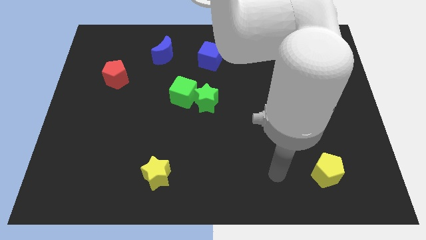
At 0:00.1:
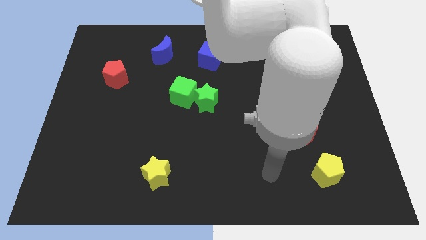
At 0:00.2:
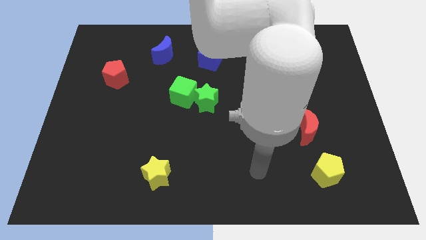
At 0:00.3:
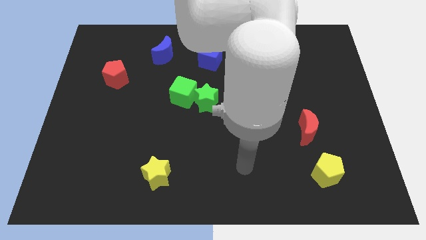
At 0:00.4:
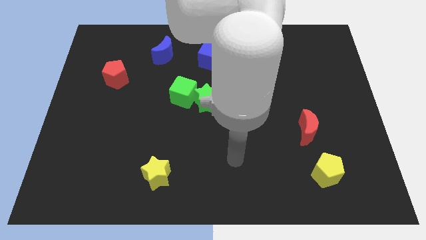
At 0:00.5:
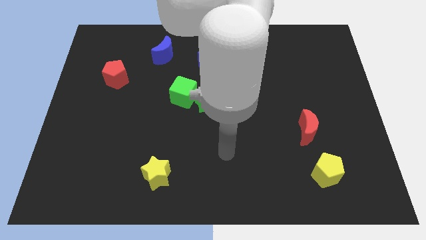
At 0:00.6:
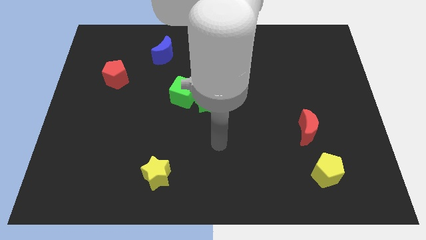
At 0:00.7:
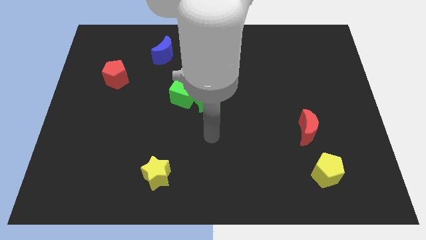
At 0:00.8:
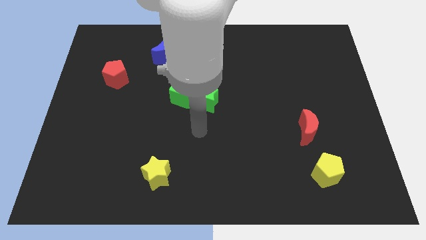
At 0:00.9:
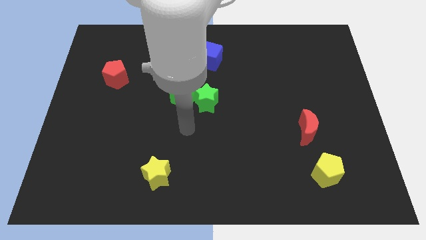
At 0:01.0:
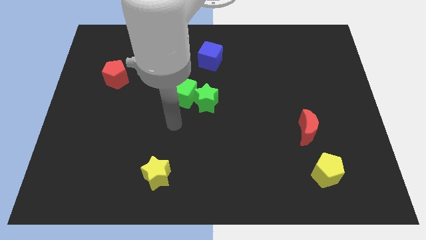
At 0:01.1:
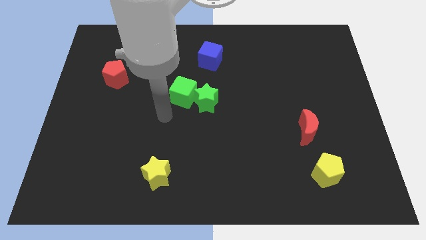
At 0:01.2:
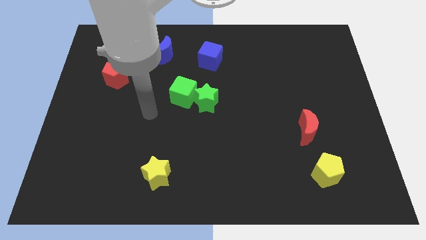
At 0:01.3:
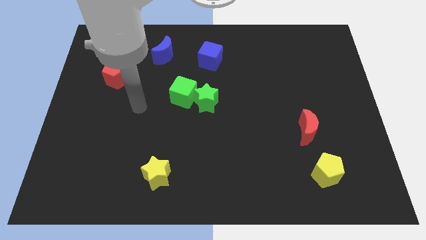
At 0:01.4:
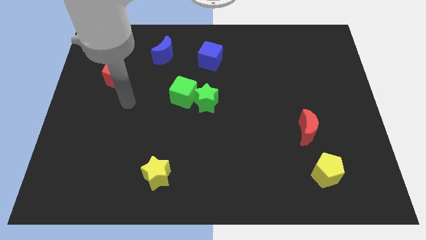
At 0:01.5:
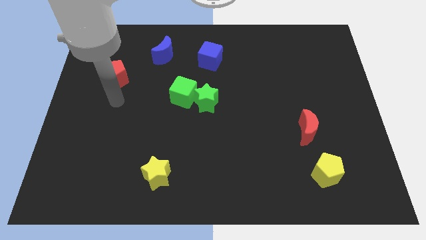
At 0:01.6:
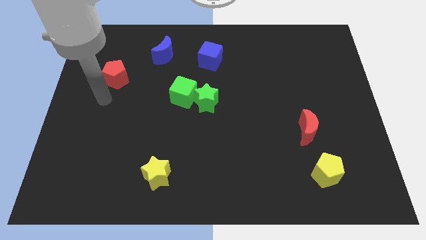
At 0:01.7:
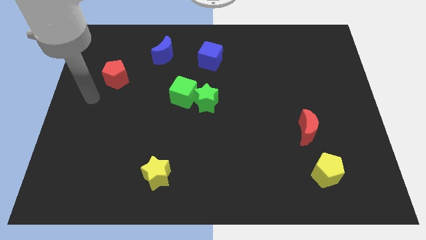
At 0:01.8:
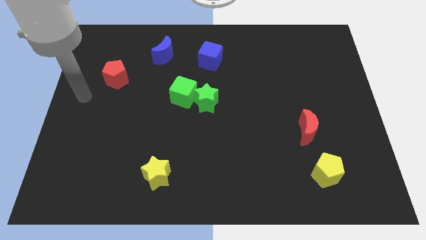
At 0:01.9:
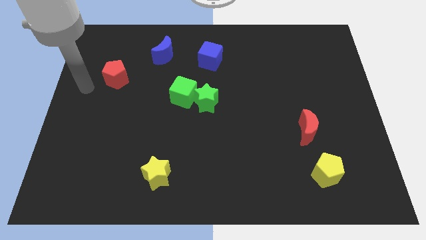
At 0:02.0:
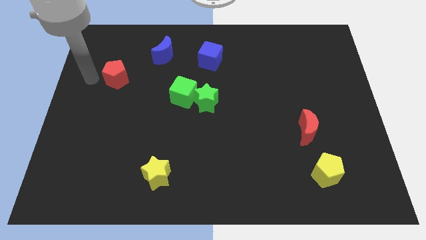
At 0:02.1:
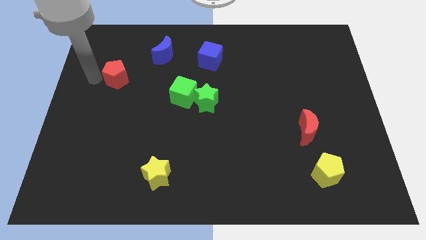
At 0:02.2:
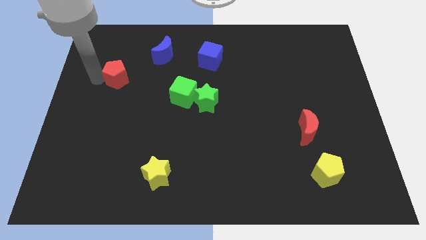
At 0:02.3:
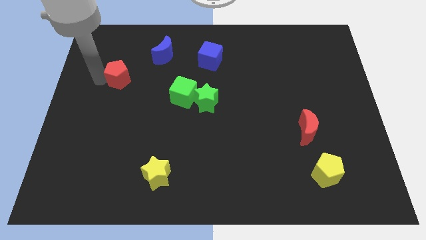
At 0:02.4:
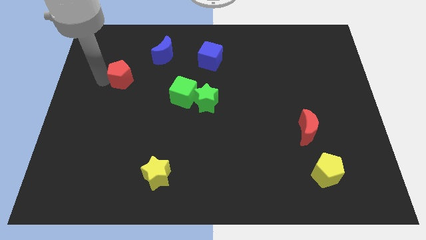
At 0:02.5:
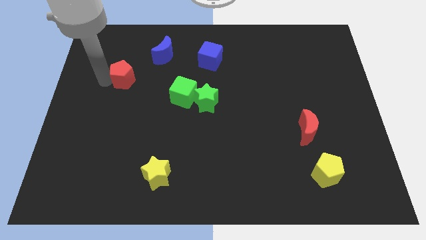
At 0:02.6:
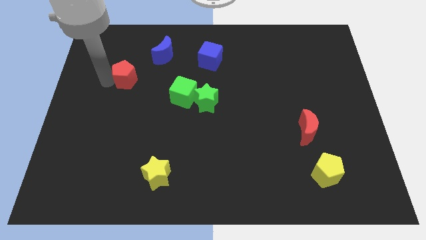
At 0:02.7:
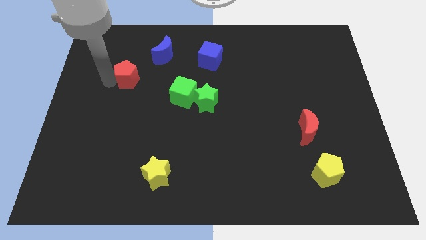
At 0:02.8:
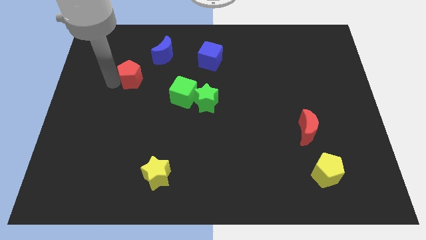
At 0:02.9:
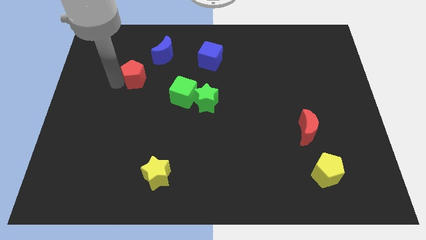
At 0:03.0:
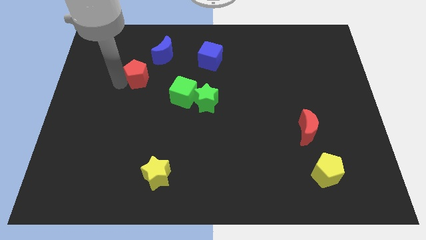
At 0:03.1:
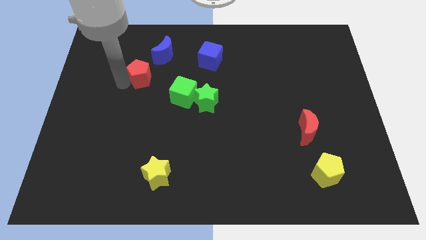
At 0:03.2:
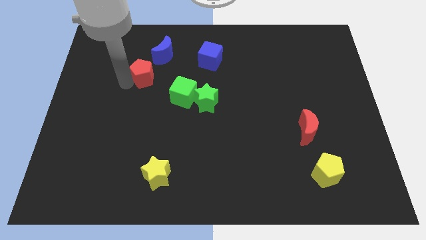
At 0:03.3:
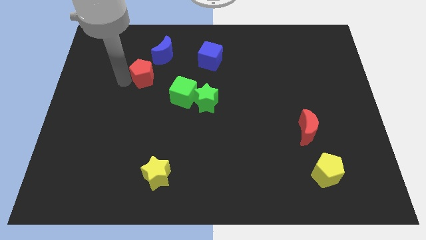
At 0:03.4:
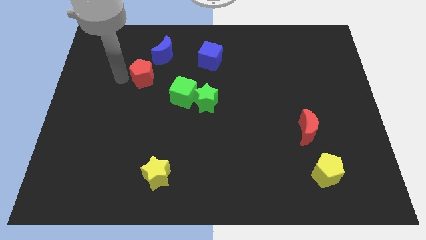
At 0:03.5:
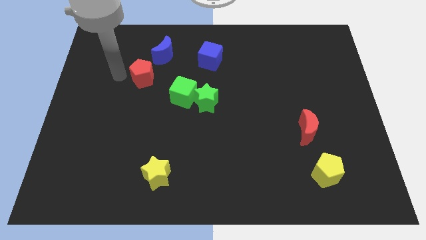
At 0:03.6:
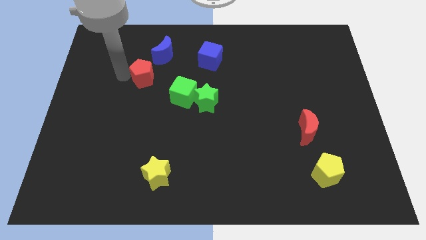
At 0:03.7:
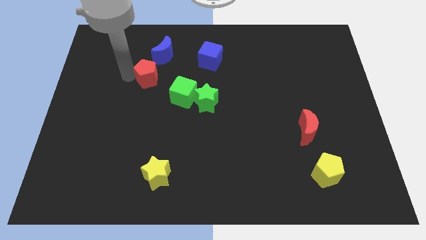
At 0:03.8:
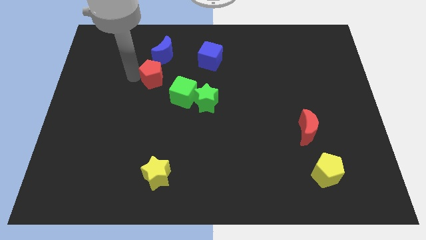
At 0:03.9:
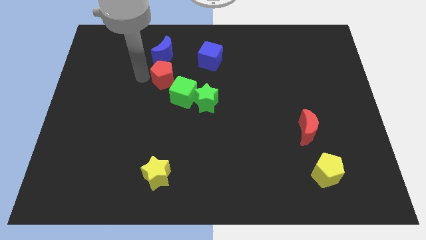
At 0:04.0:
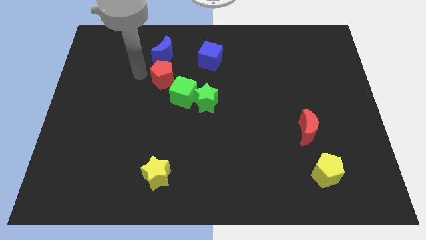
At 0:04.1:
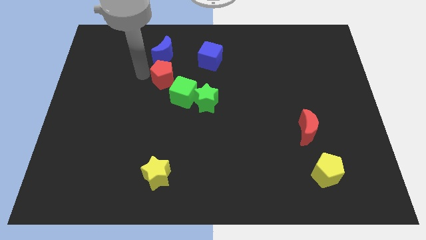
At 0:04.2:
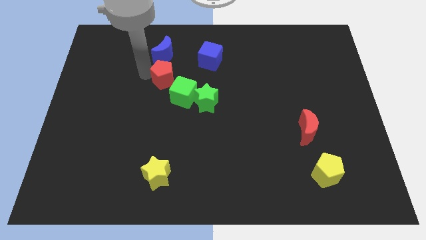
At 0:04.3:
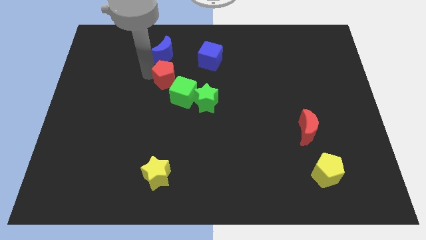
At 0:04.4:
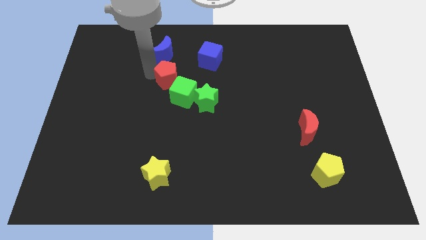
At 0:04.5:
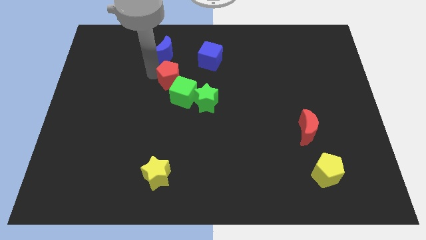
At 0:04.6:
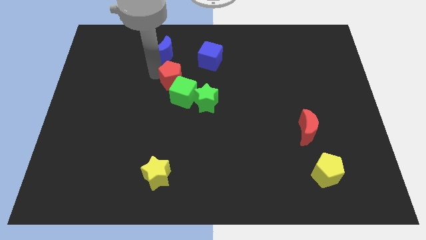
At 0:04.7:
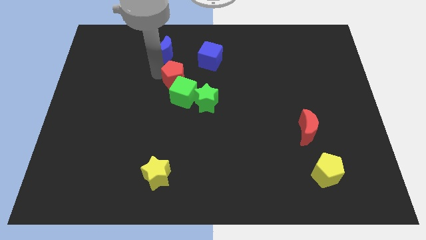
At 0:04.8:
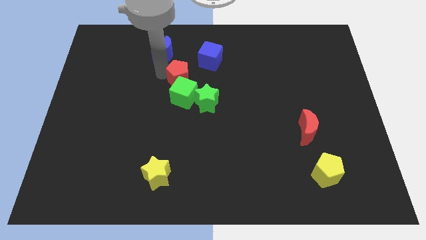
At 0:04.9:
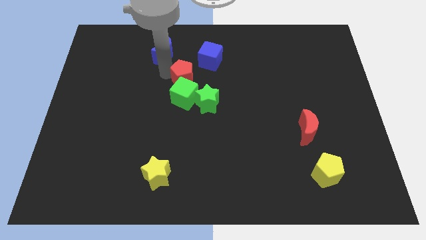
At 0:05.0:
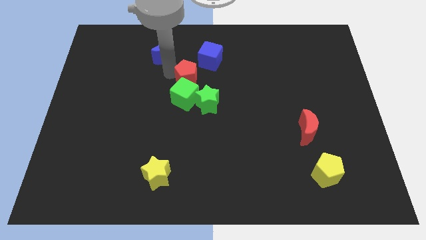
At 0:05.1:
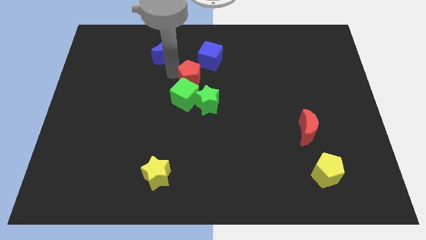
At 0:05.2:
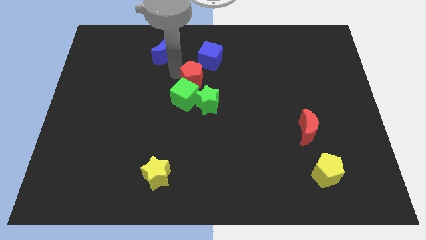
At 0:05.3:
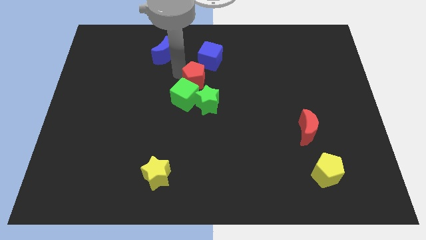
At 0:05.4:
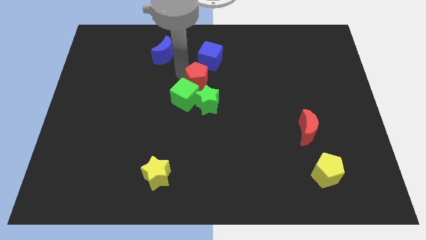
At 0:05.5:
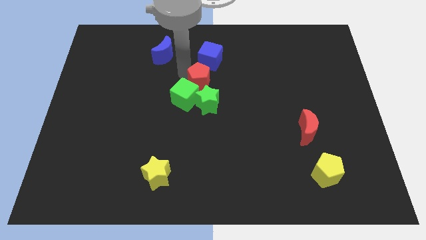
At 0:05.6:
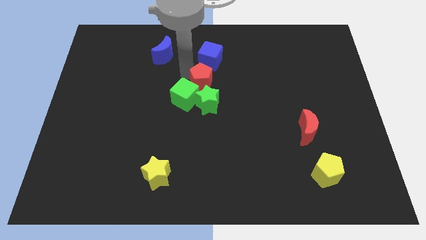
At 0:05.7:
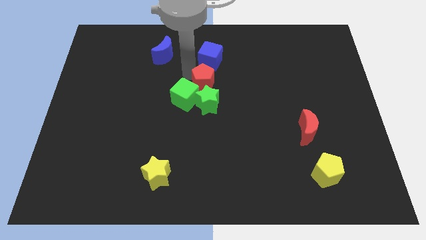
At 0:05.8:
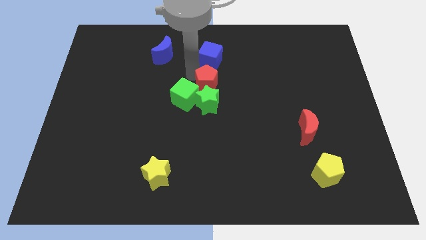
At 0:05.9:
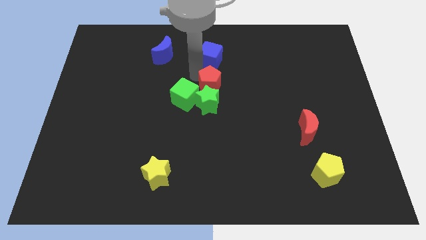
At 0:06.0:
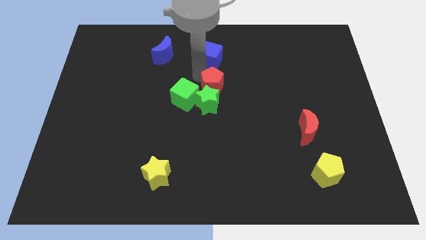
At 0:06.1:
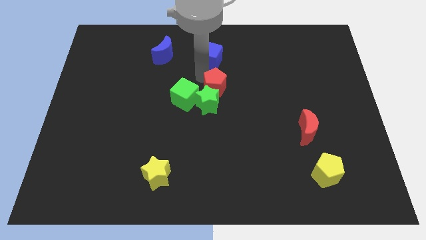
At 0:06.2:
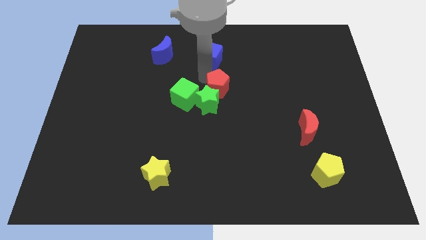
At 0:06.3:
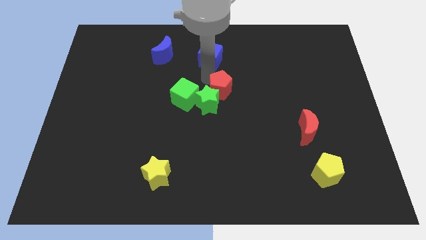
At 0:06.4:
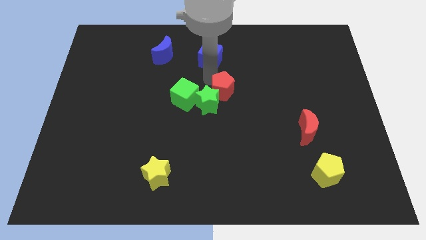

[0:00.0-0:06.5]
slide the red pentagon to the right of the green star

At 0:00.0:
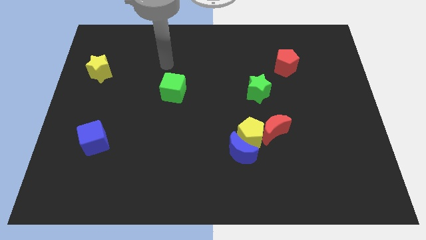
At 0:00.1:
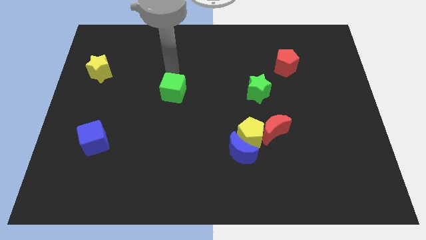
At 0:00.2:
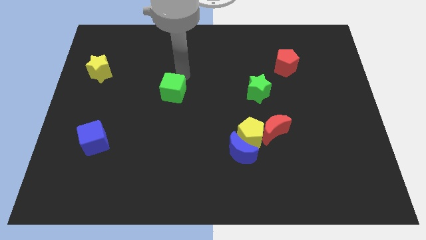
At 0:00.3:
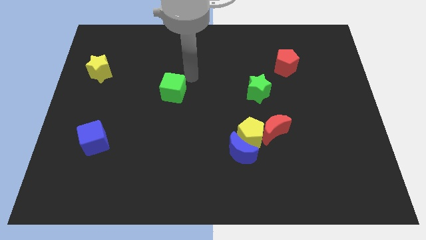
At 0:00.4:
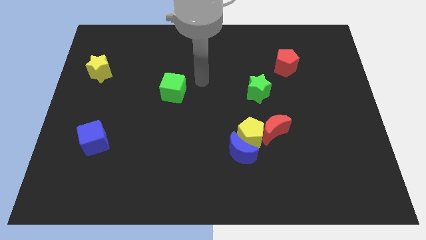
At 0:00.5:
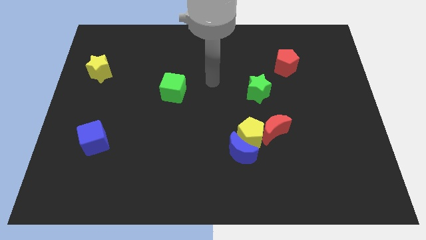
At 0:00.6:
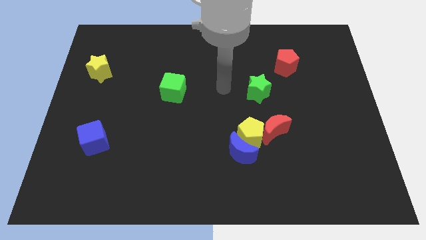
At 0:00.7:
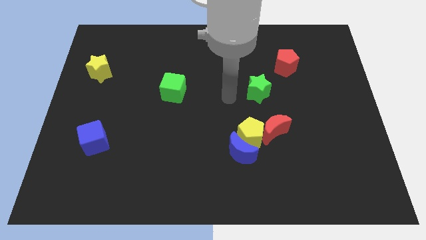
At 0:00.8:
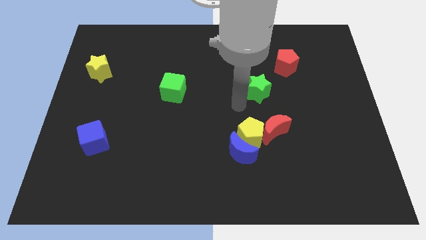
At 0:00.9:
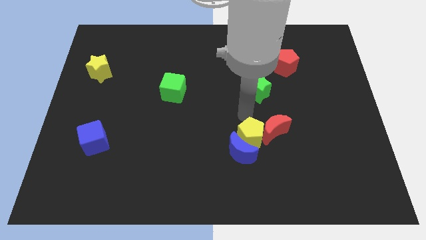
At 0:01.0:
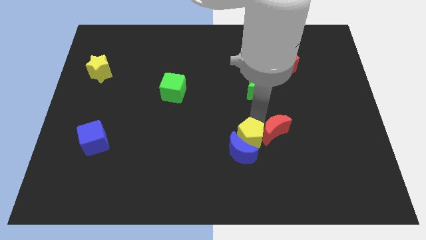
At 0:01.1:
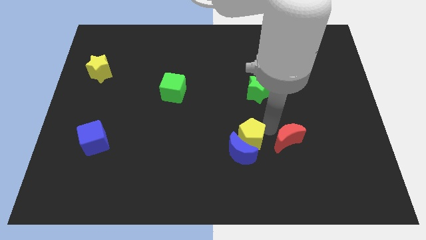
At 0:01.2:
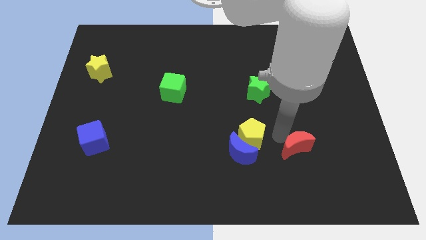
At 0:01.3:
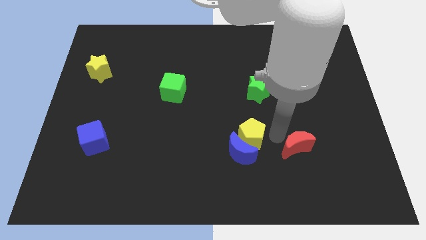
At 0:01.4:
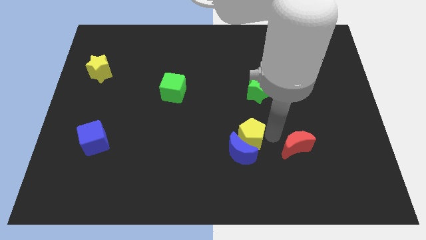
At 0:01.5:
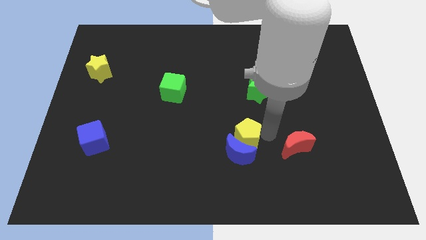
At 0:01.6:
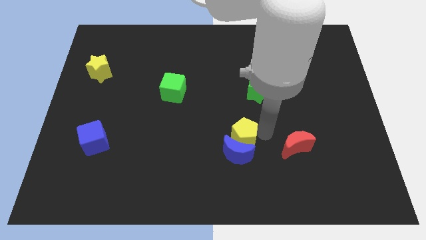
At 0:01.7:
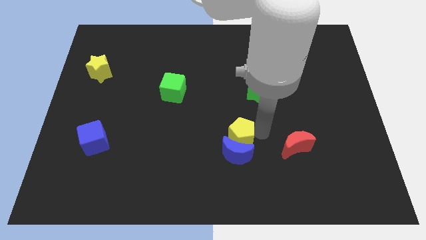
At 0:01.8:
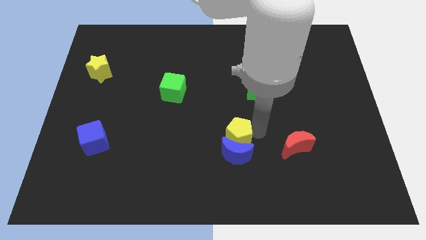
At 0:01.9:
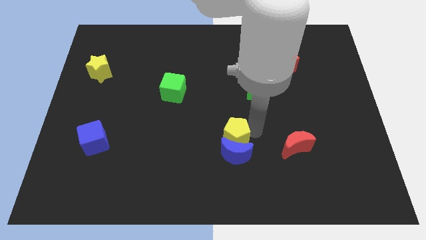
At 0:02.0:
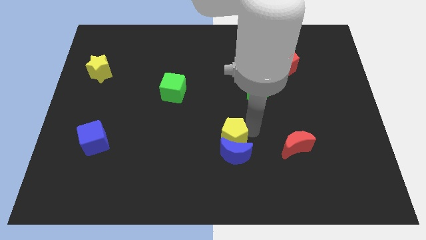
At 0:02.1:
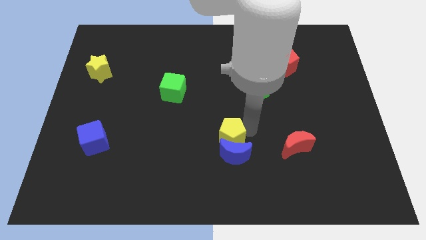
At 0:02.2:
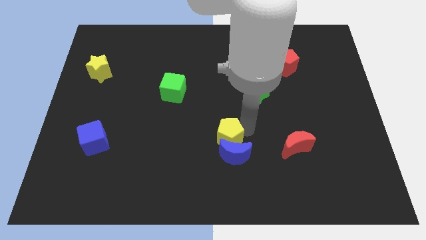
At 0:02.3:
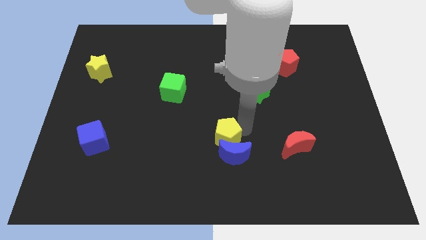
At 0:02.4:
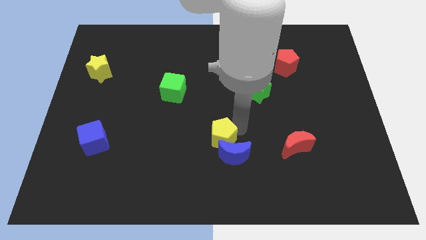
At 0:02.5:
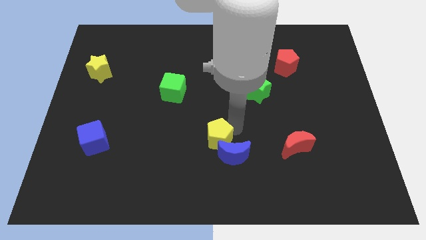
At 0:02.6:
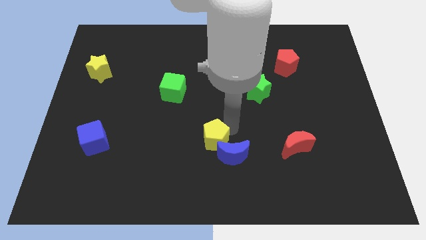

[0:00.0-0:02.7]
put the yellow pentagon left of the blue moon
